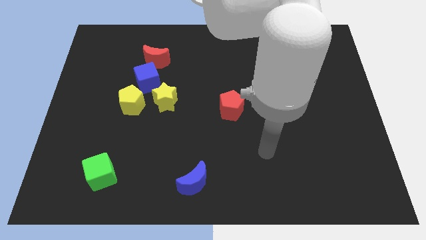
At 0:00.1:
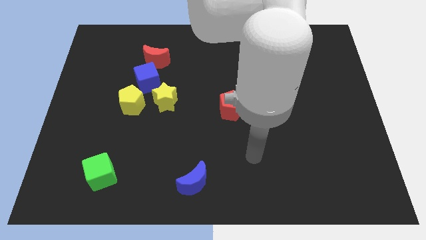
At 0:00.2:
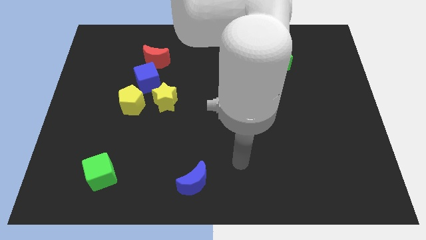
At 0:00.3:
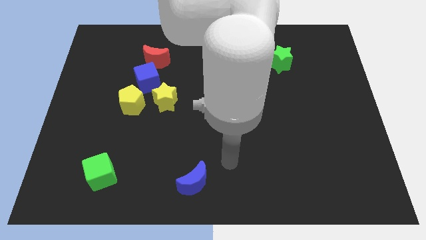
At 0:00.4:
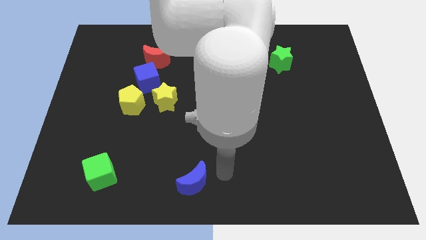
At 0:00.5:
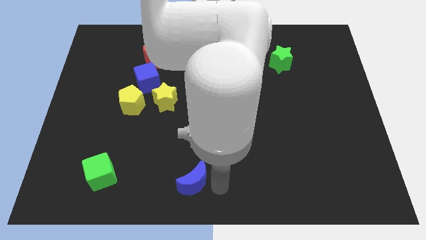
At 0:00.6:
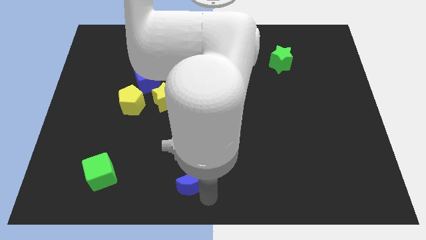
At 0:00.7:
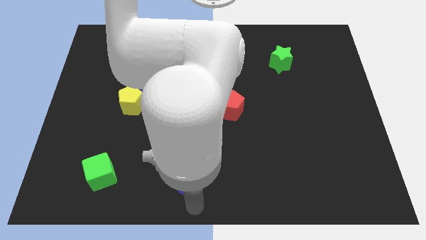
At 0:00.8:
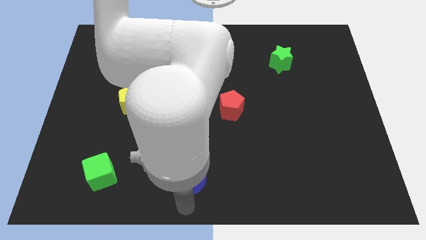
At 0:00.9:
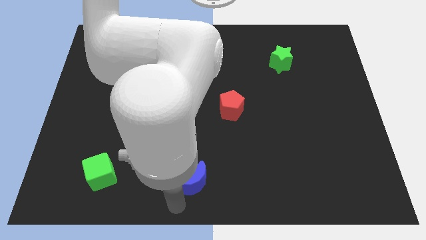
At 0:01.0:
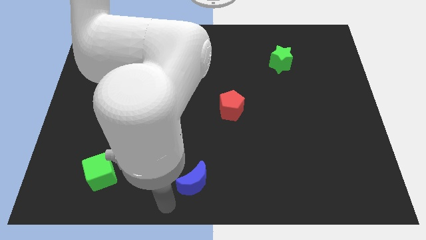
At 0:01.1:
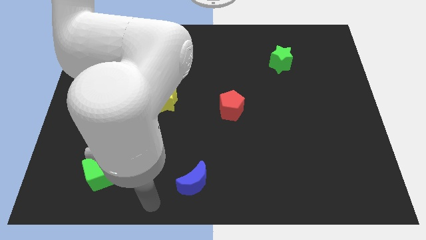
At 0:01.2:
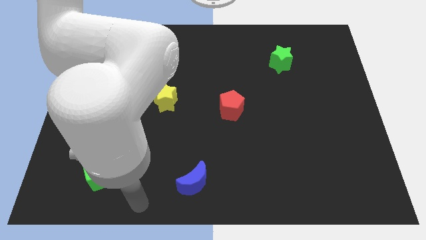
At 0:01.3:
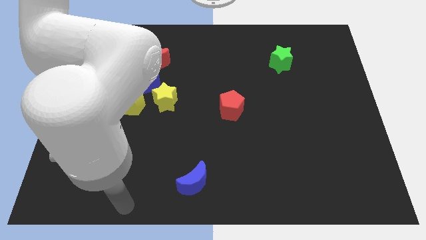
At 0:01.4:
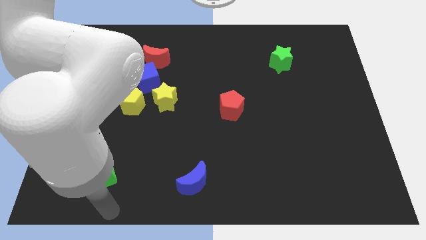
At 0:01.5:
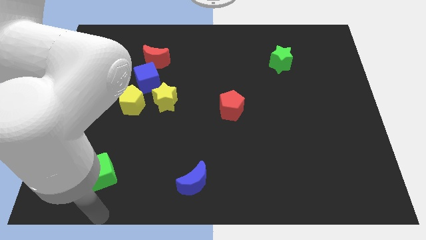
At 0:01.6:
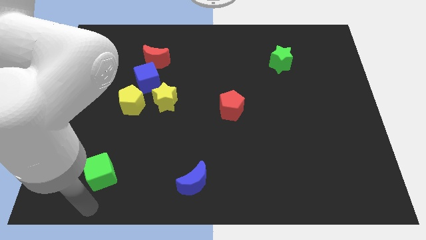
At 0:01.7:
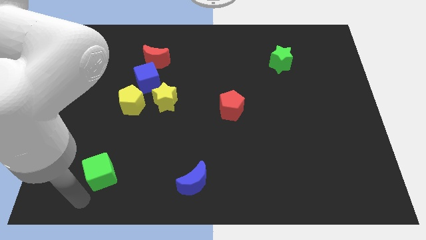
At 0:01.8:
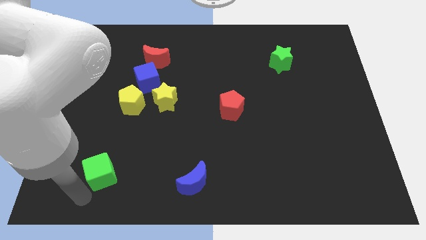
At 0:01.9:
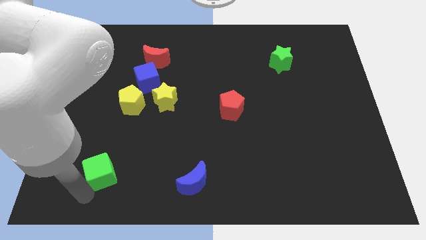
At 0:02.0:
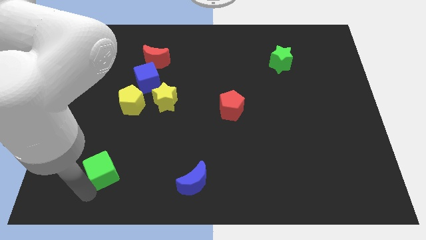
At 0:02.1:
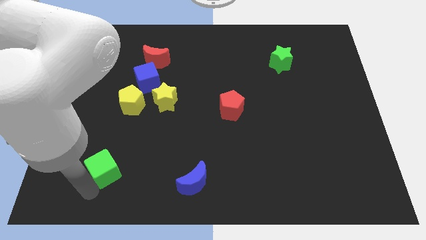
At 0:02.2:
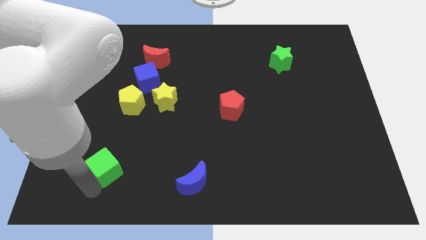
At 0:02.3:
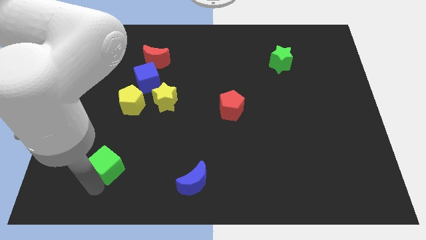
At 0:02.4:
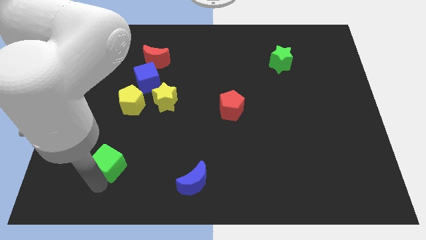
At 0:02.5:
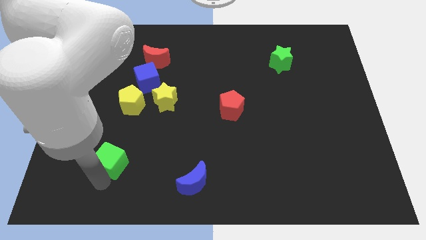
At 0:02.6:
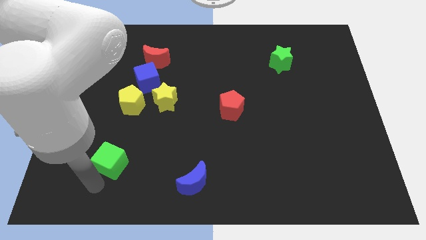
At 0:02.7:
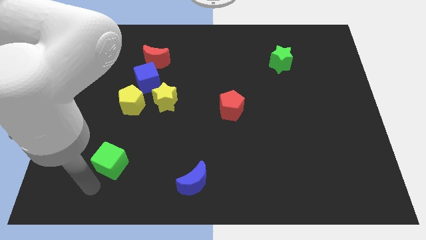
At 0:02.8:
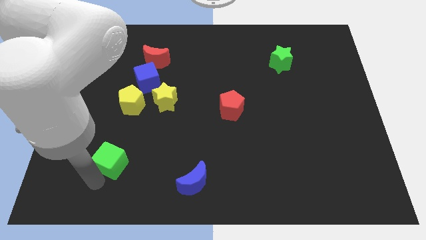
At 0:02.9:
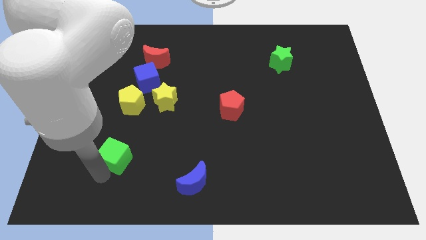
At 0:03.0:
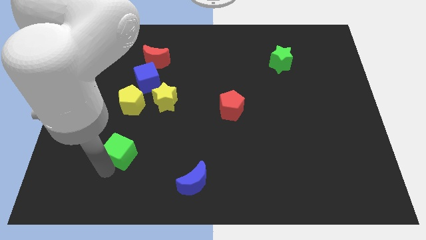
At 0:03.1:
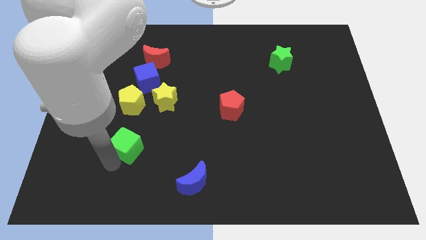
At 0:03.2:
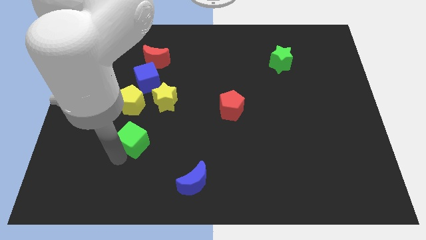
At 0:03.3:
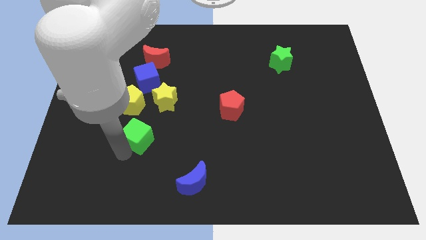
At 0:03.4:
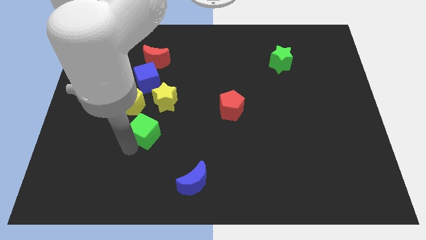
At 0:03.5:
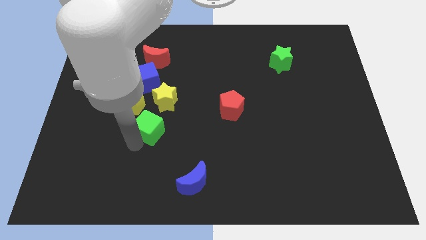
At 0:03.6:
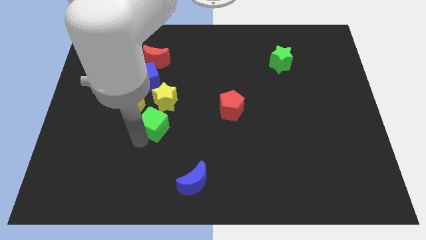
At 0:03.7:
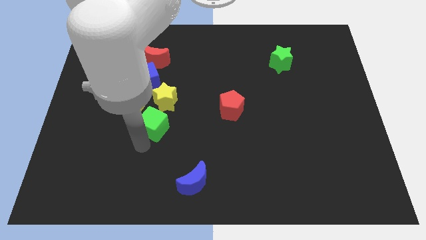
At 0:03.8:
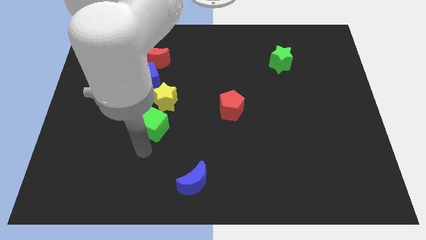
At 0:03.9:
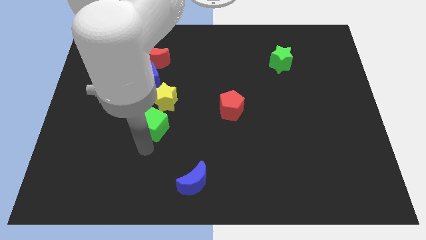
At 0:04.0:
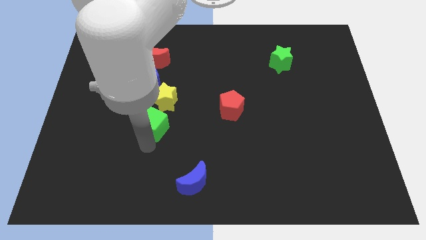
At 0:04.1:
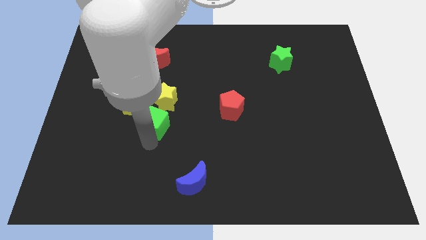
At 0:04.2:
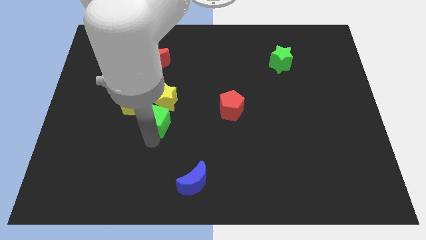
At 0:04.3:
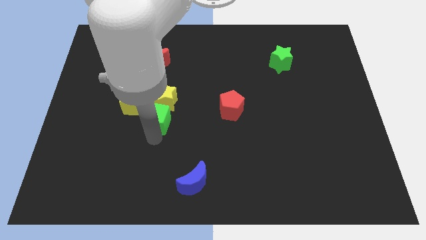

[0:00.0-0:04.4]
move the green cube close to the yellow star

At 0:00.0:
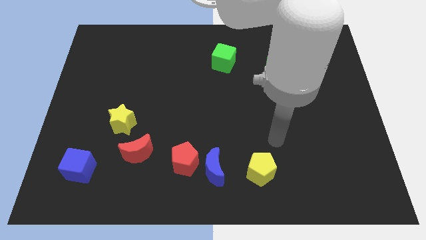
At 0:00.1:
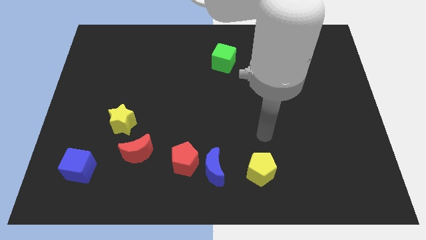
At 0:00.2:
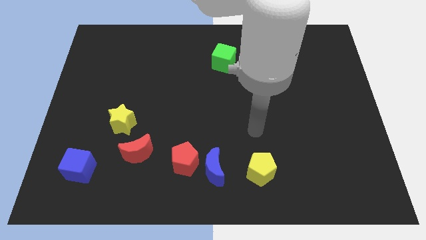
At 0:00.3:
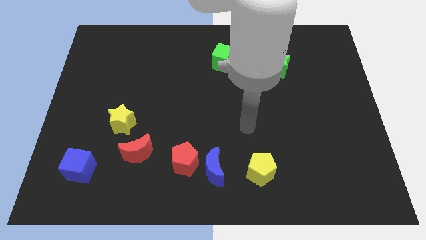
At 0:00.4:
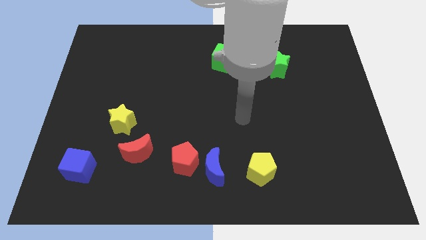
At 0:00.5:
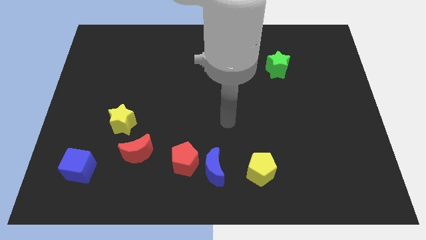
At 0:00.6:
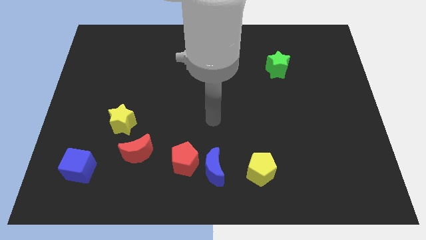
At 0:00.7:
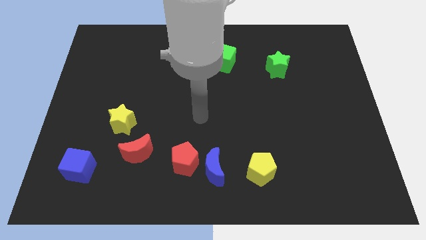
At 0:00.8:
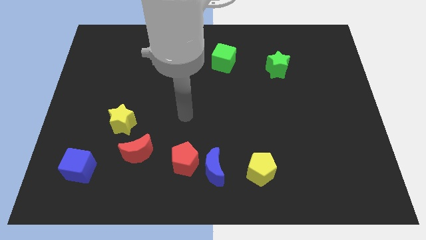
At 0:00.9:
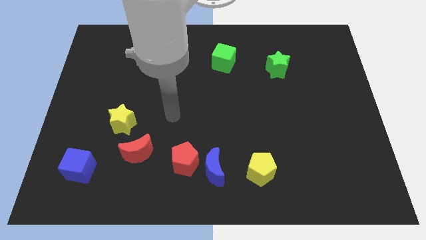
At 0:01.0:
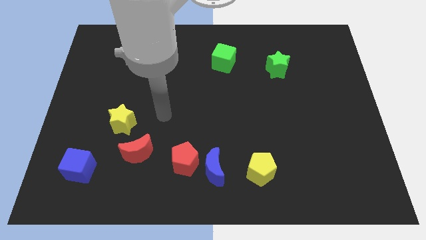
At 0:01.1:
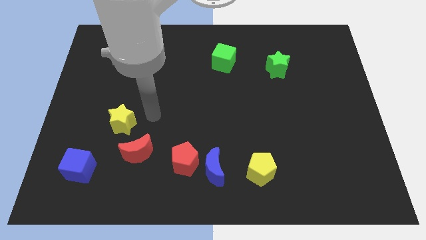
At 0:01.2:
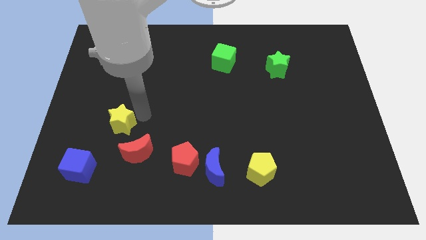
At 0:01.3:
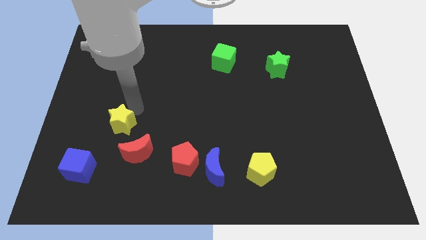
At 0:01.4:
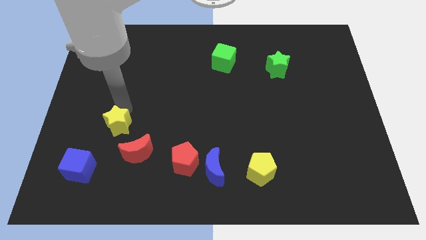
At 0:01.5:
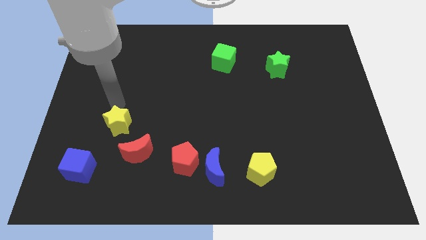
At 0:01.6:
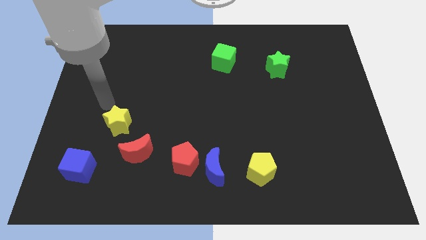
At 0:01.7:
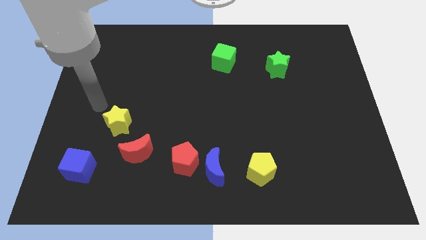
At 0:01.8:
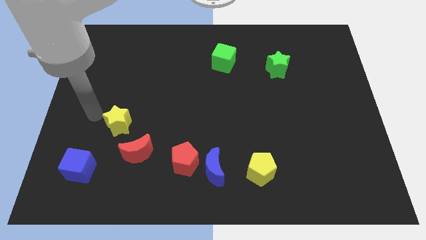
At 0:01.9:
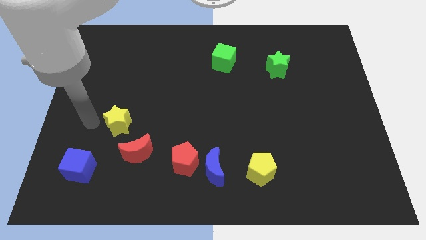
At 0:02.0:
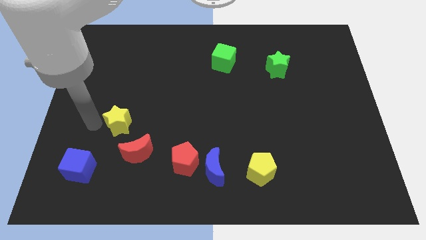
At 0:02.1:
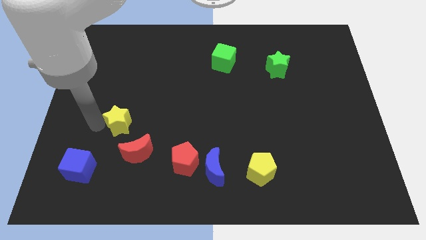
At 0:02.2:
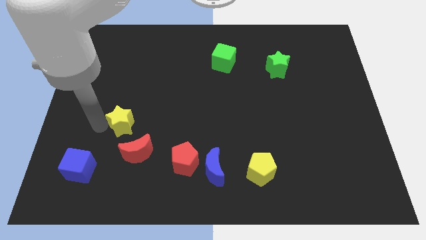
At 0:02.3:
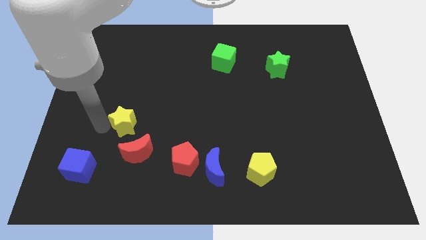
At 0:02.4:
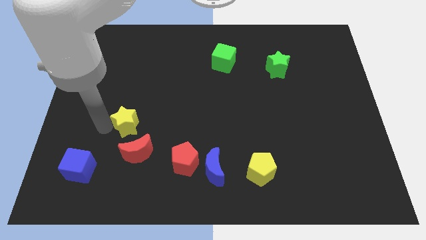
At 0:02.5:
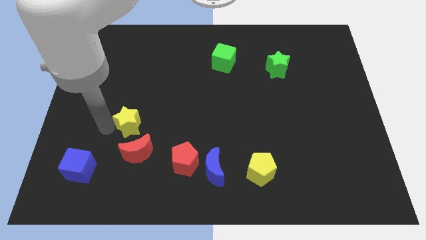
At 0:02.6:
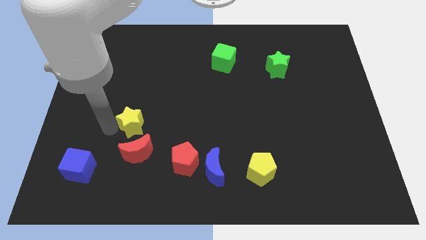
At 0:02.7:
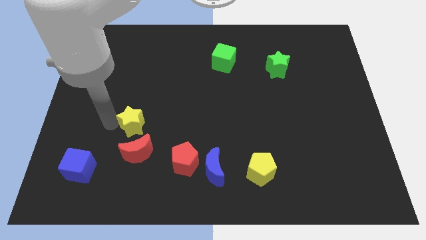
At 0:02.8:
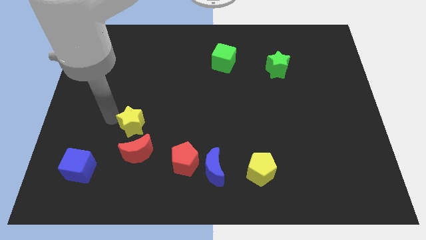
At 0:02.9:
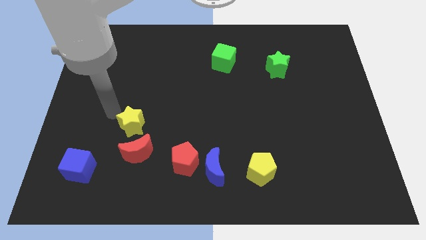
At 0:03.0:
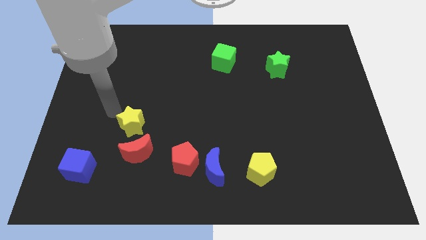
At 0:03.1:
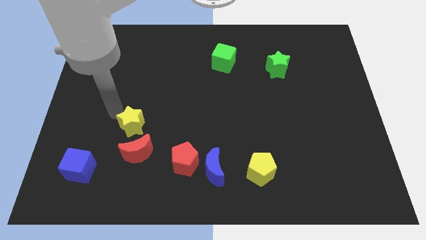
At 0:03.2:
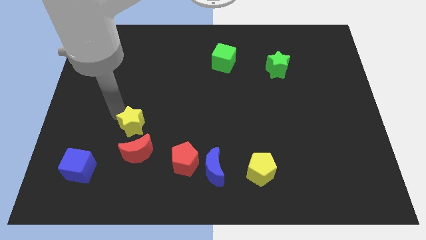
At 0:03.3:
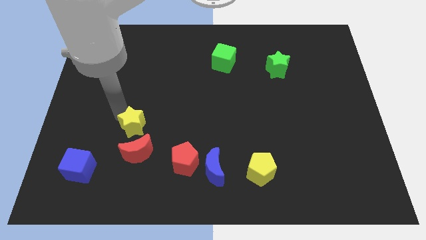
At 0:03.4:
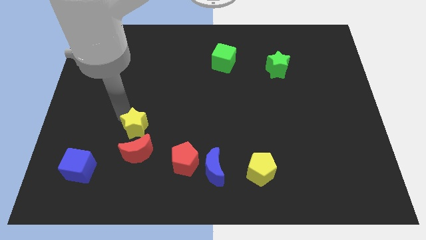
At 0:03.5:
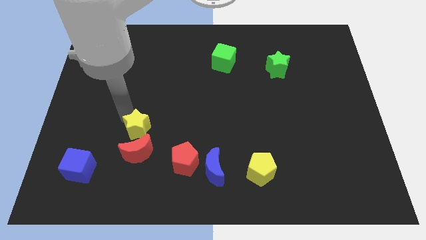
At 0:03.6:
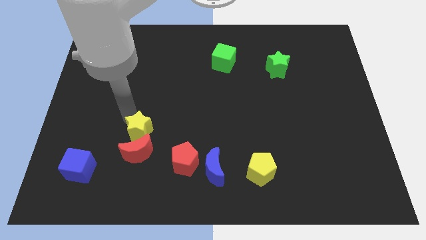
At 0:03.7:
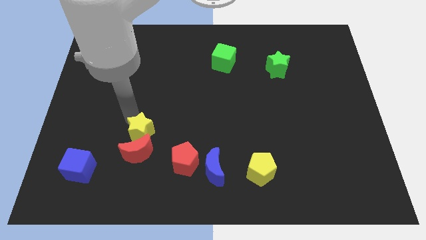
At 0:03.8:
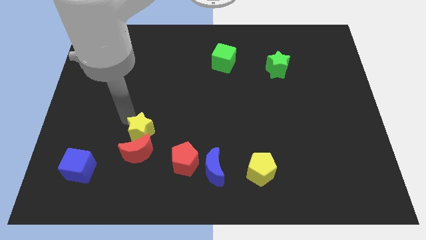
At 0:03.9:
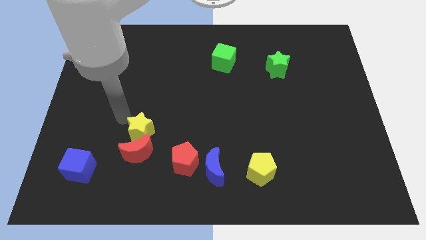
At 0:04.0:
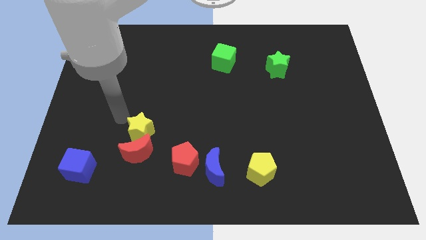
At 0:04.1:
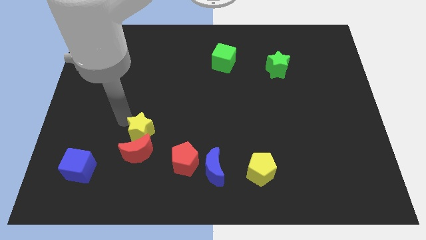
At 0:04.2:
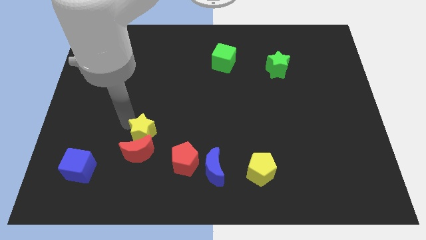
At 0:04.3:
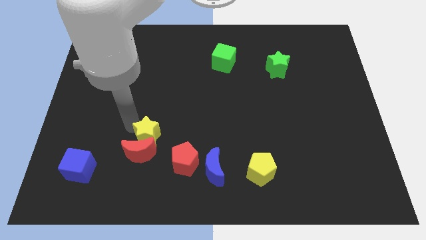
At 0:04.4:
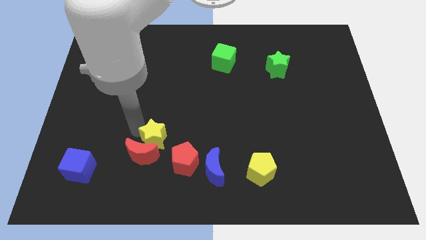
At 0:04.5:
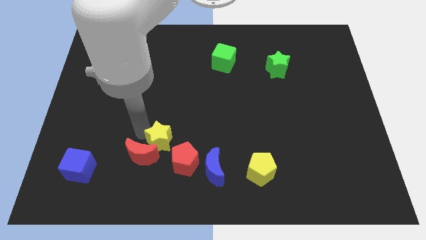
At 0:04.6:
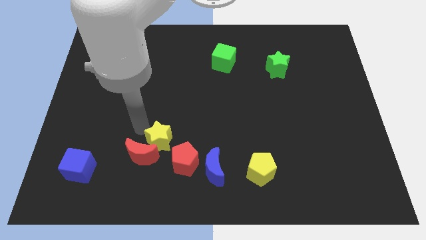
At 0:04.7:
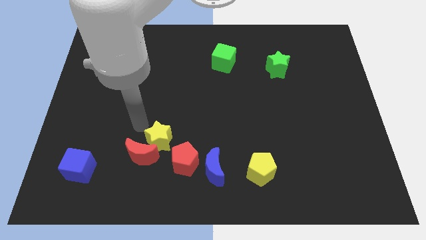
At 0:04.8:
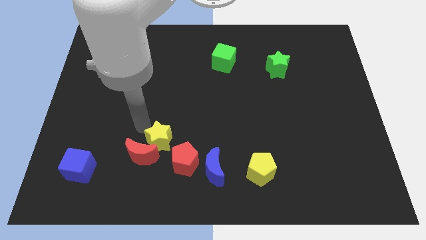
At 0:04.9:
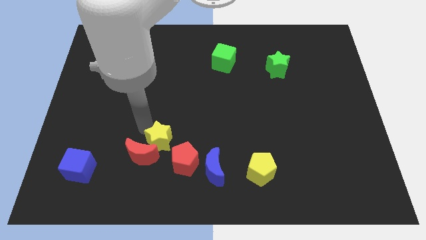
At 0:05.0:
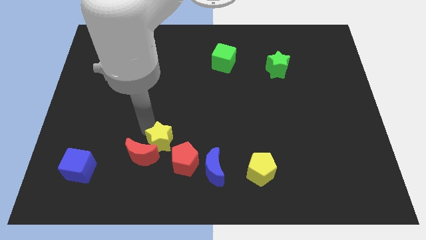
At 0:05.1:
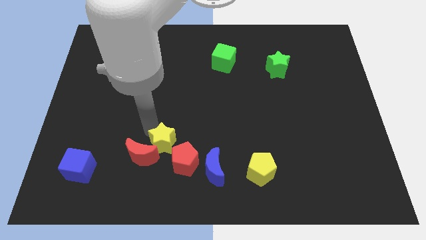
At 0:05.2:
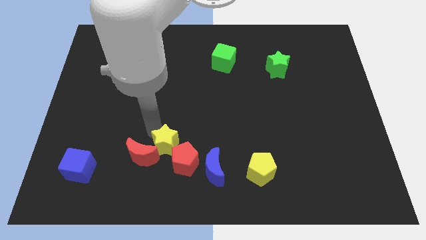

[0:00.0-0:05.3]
put the yellow star next to the red pentagon
